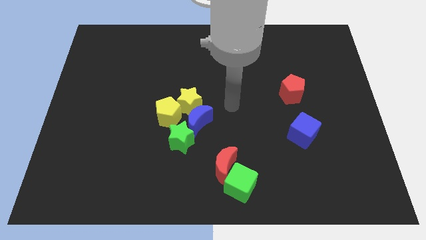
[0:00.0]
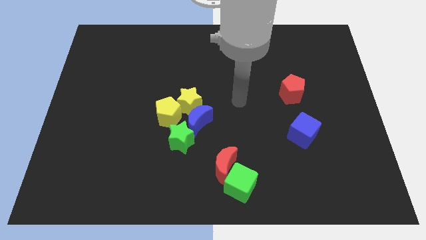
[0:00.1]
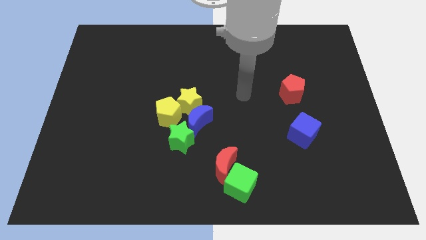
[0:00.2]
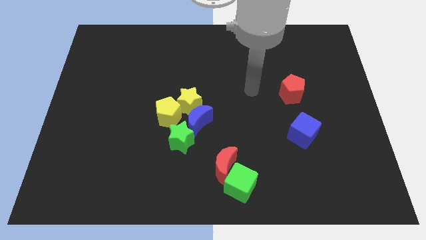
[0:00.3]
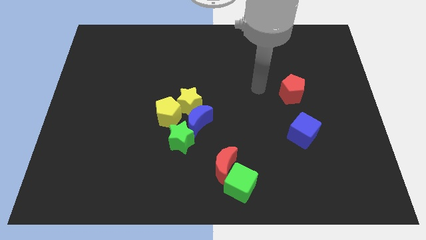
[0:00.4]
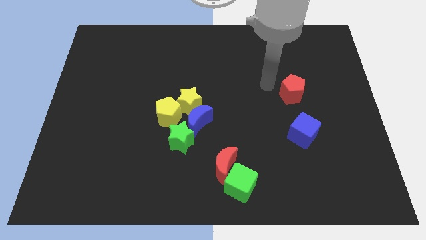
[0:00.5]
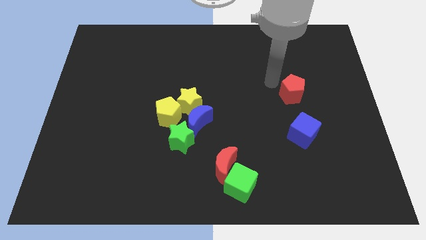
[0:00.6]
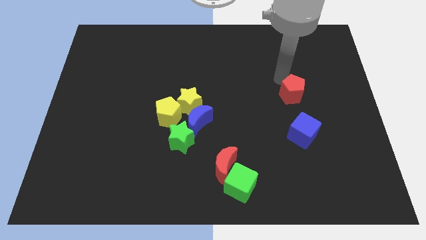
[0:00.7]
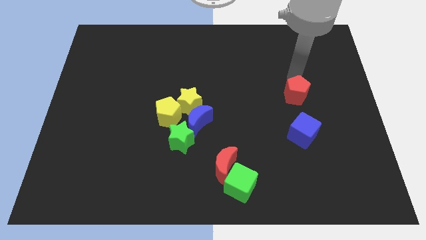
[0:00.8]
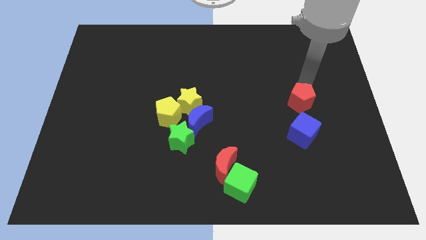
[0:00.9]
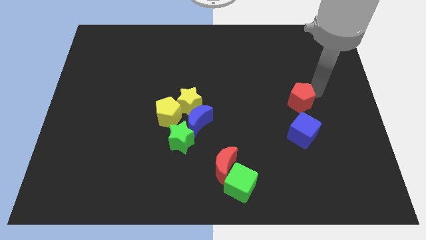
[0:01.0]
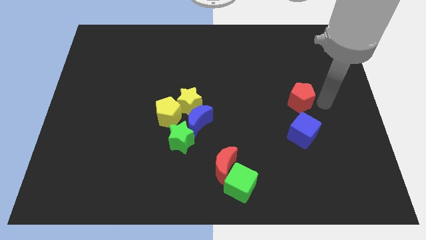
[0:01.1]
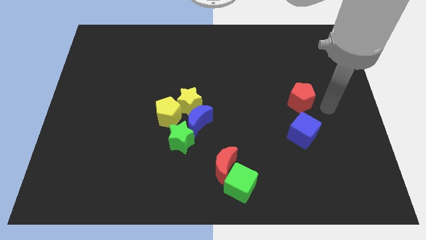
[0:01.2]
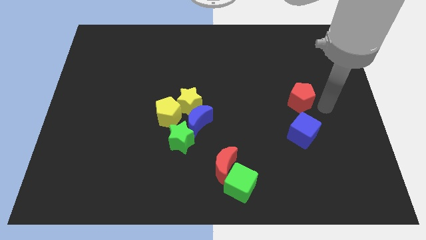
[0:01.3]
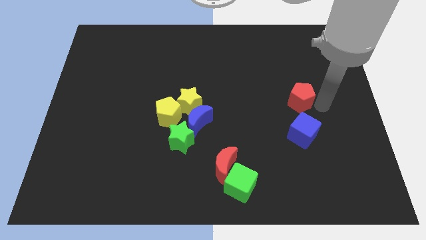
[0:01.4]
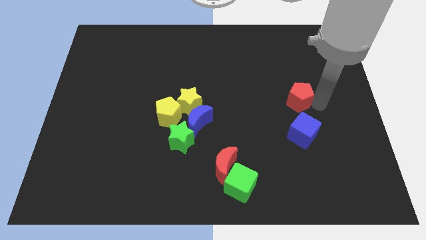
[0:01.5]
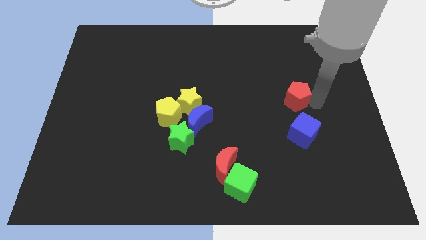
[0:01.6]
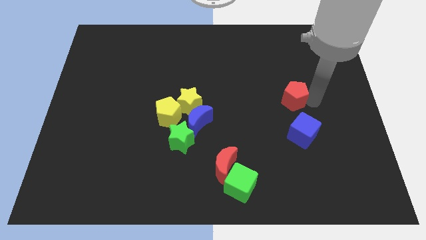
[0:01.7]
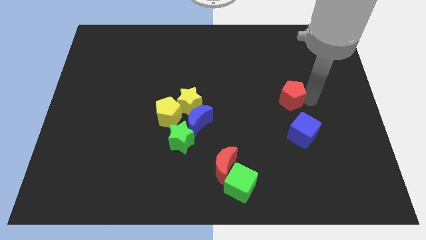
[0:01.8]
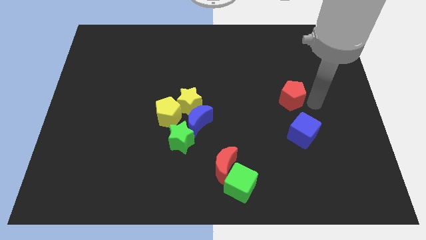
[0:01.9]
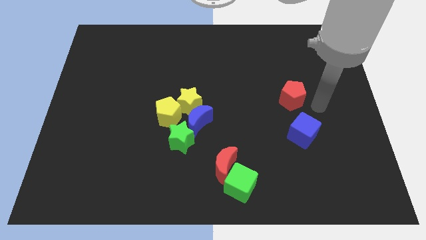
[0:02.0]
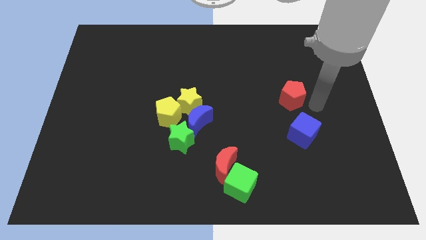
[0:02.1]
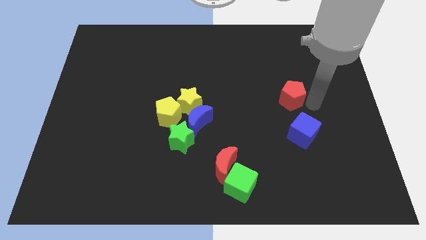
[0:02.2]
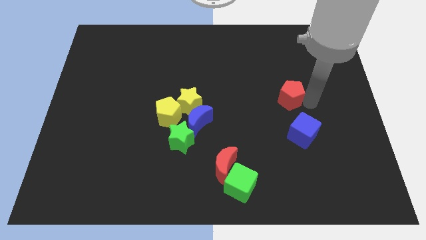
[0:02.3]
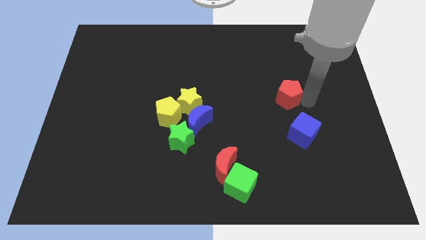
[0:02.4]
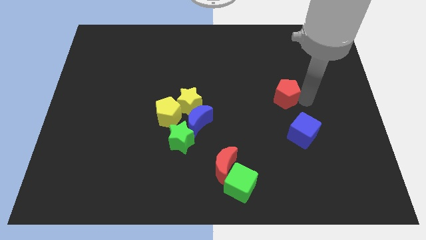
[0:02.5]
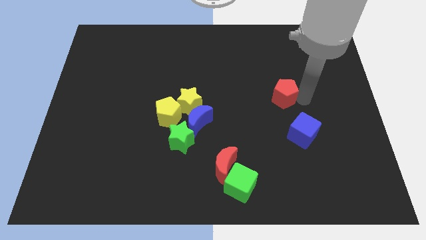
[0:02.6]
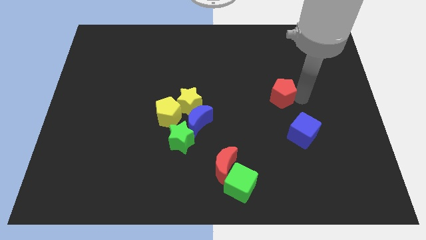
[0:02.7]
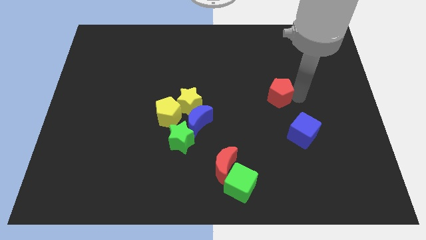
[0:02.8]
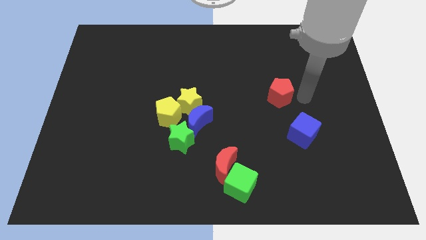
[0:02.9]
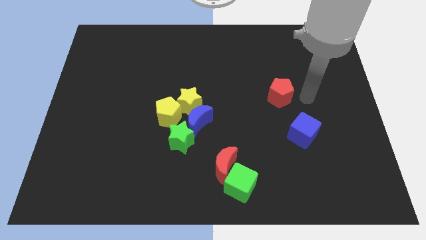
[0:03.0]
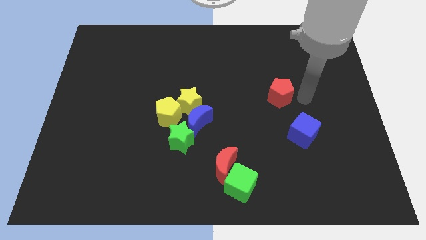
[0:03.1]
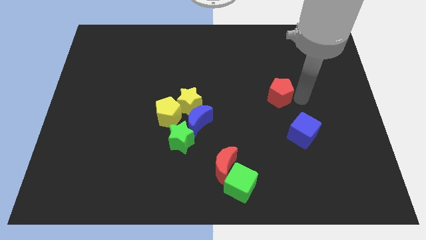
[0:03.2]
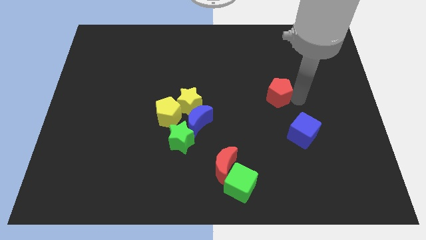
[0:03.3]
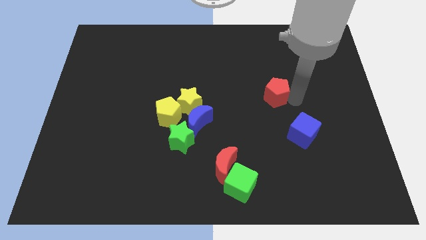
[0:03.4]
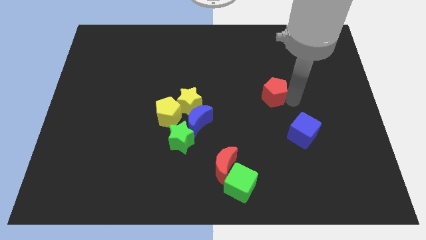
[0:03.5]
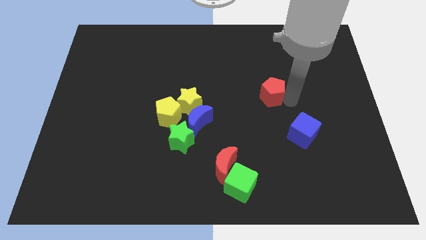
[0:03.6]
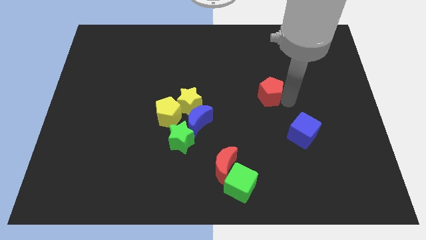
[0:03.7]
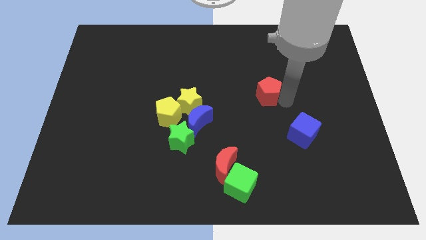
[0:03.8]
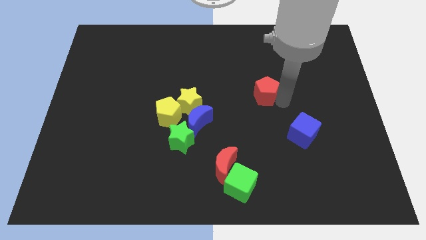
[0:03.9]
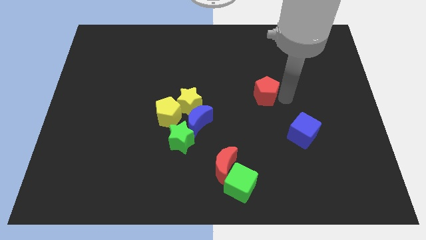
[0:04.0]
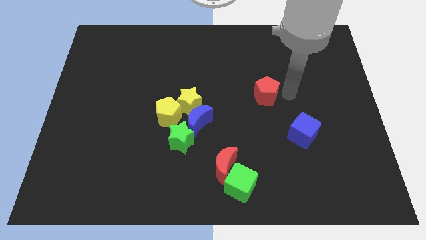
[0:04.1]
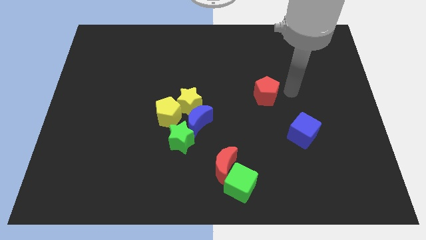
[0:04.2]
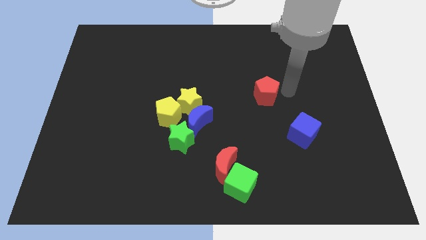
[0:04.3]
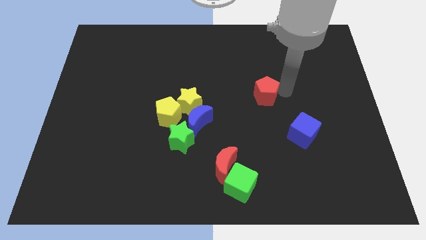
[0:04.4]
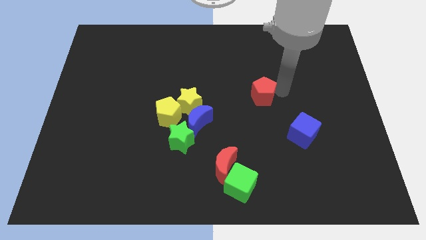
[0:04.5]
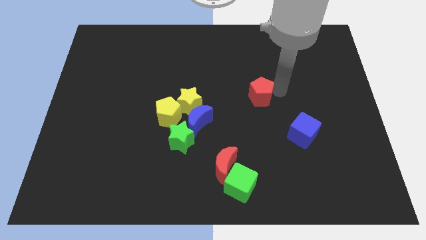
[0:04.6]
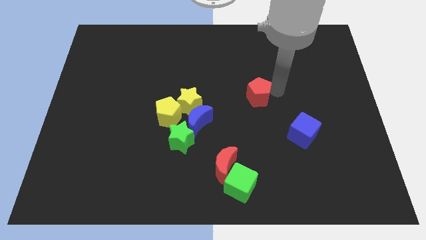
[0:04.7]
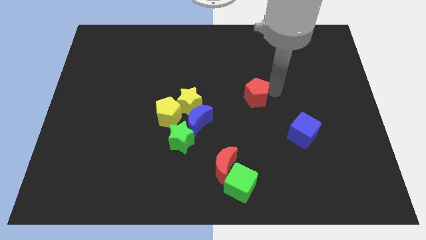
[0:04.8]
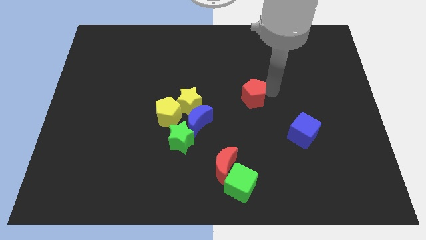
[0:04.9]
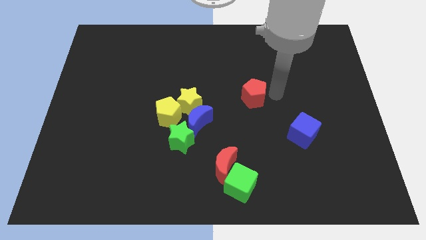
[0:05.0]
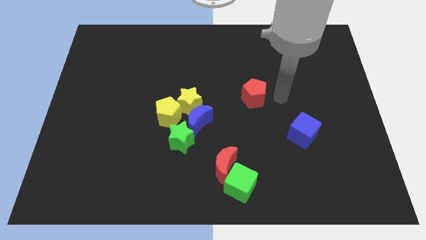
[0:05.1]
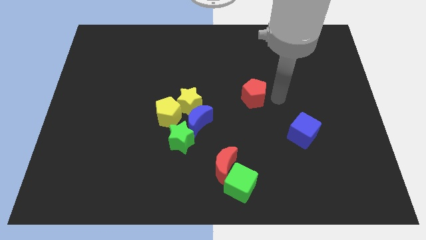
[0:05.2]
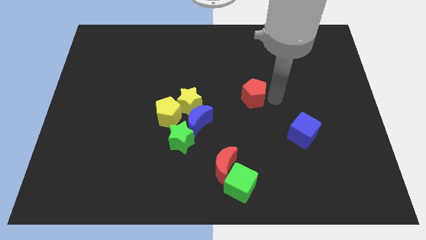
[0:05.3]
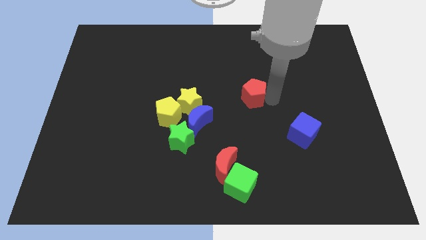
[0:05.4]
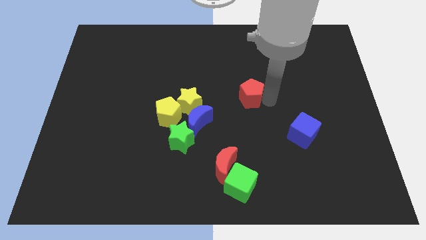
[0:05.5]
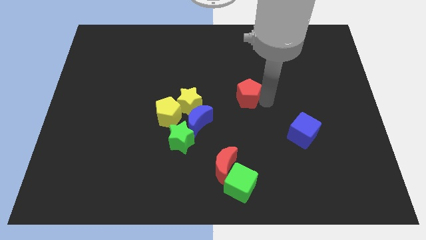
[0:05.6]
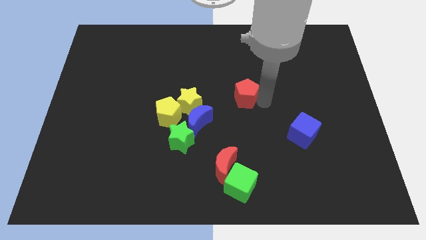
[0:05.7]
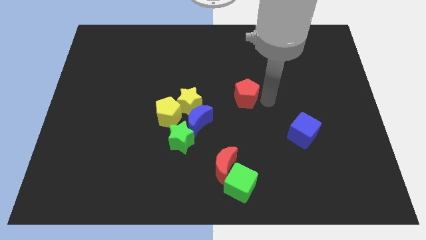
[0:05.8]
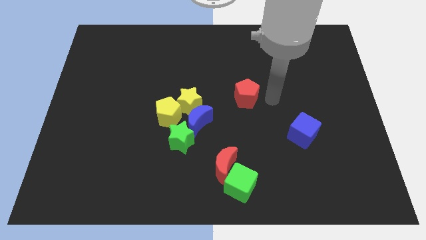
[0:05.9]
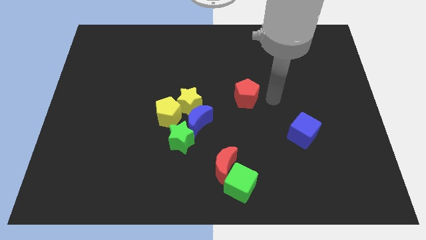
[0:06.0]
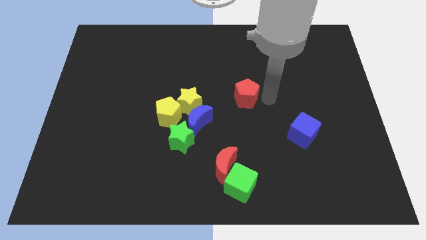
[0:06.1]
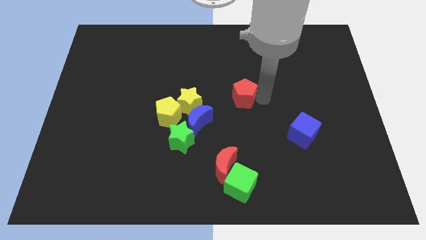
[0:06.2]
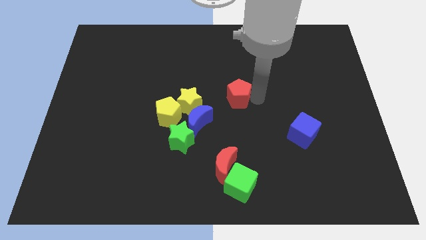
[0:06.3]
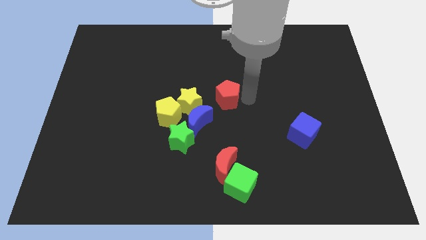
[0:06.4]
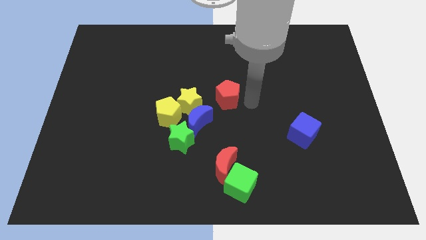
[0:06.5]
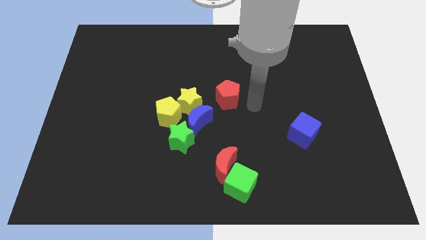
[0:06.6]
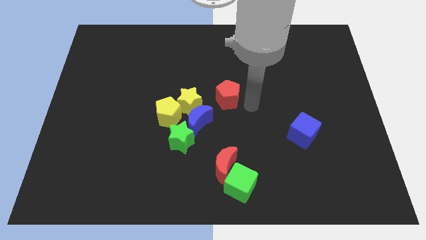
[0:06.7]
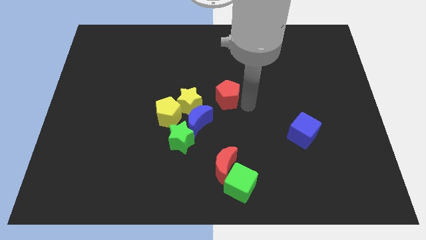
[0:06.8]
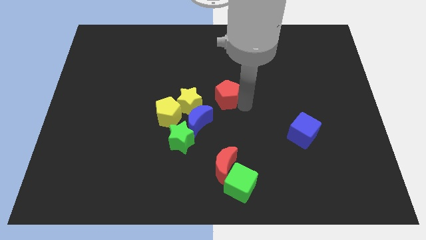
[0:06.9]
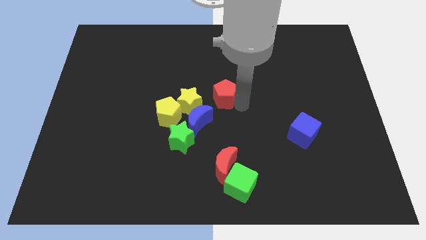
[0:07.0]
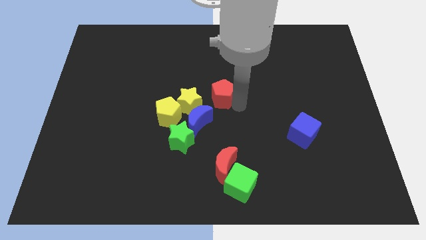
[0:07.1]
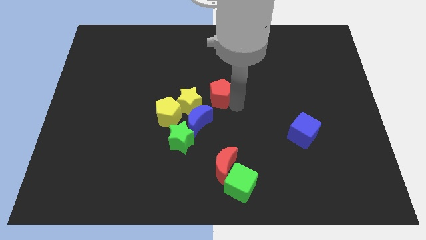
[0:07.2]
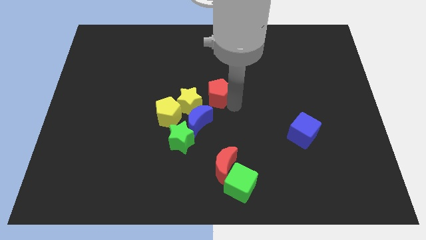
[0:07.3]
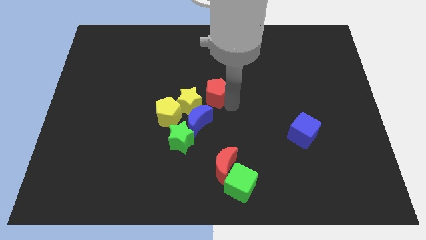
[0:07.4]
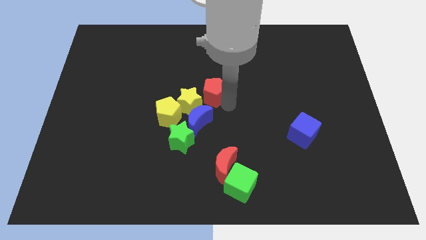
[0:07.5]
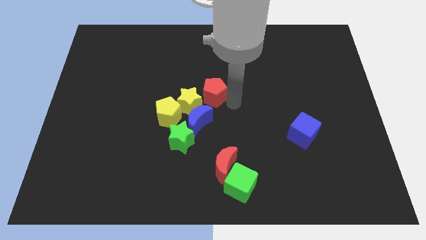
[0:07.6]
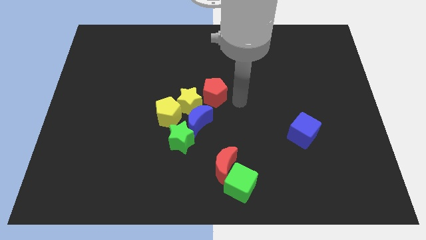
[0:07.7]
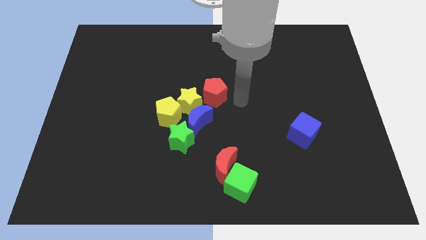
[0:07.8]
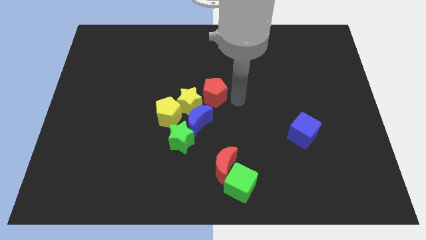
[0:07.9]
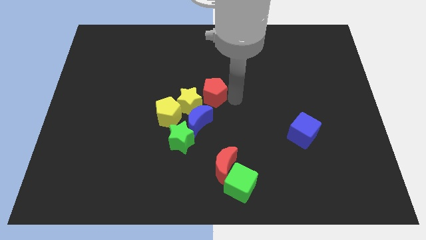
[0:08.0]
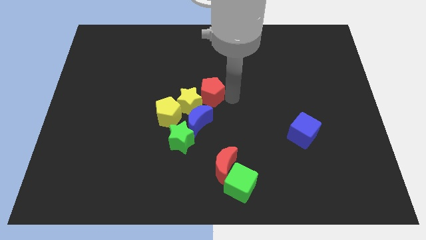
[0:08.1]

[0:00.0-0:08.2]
slide the red pentagon to the left
